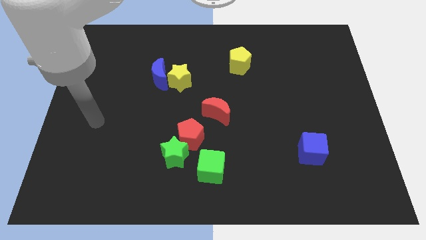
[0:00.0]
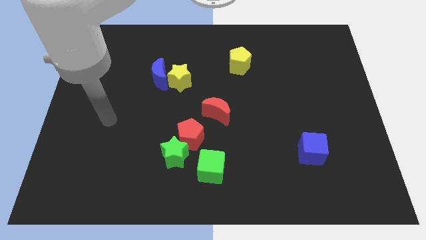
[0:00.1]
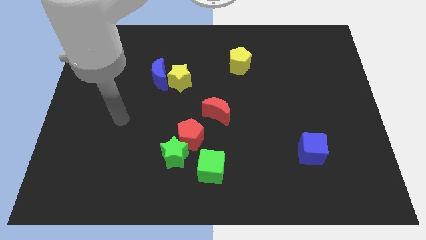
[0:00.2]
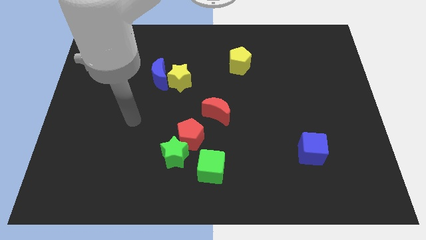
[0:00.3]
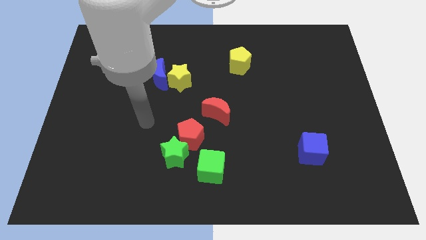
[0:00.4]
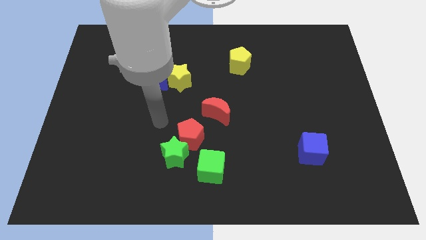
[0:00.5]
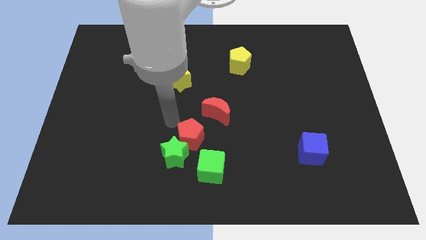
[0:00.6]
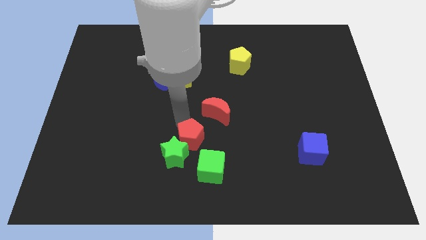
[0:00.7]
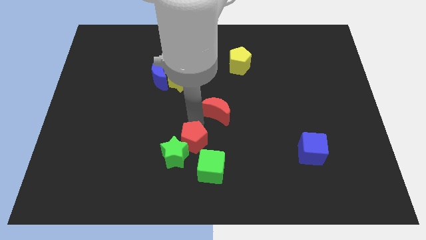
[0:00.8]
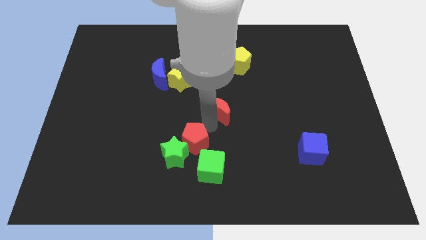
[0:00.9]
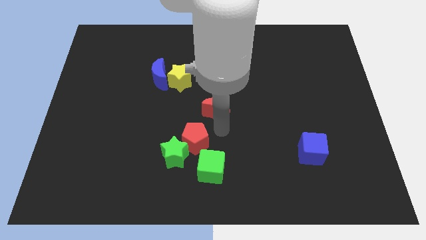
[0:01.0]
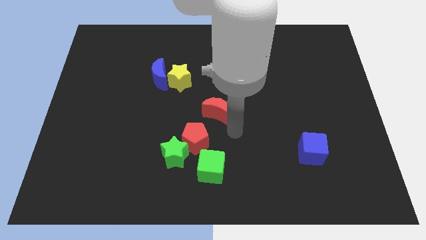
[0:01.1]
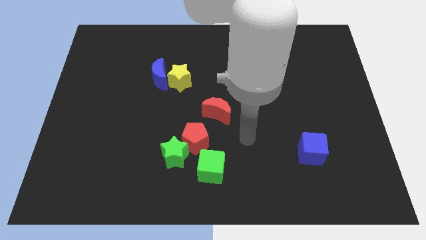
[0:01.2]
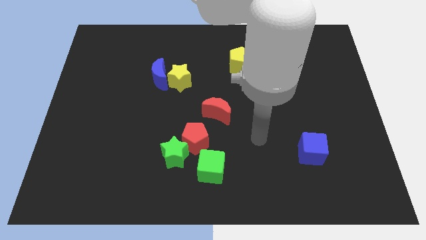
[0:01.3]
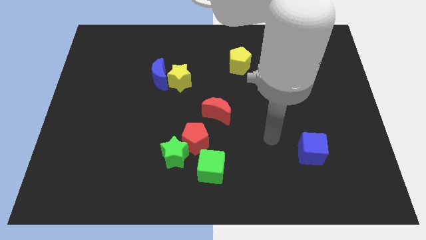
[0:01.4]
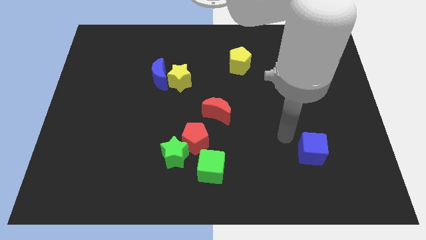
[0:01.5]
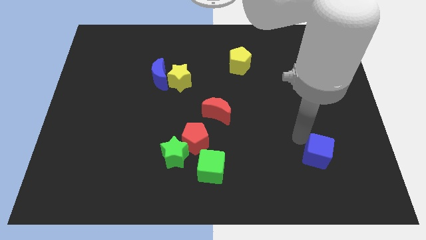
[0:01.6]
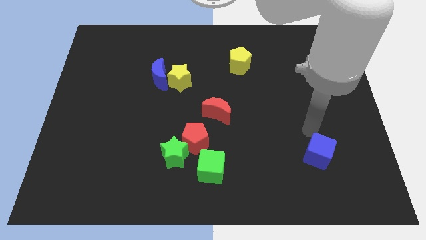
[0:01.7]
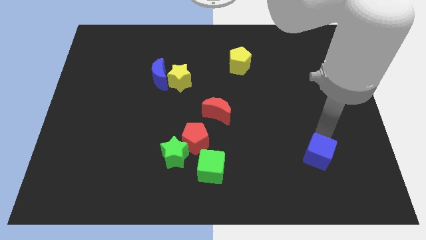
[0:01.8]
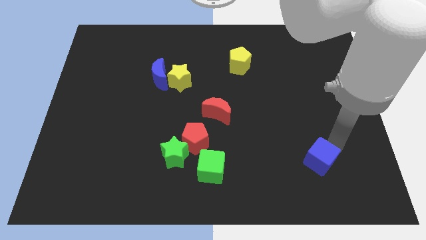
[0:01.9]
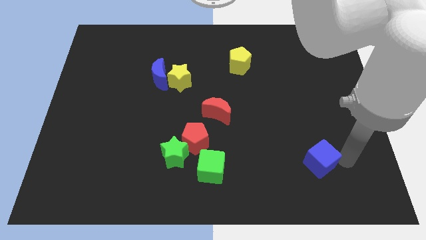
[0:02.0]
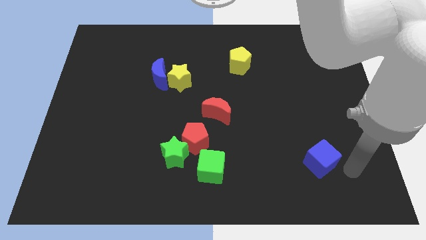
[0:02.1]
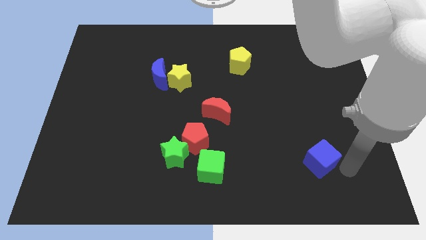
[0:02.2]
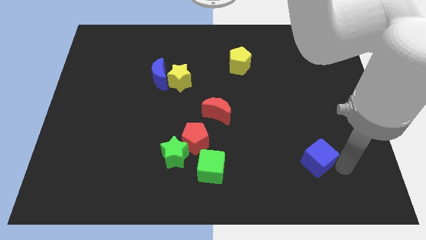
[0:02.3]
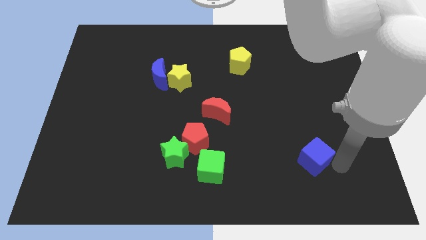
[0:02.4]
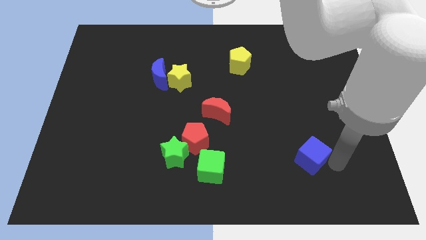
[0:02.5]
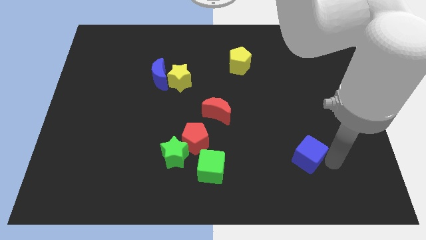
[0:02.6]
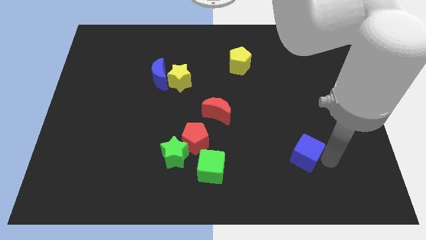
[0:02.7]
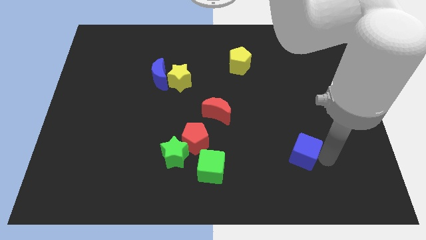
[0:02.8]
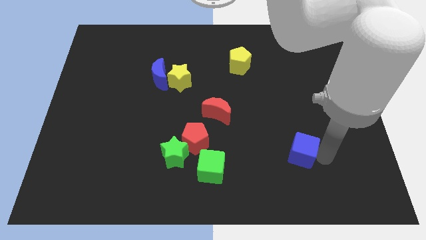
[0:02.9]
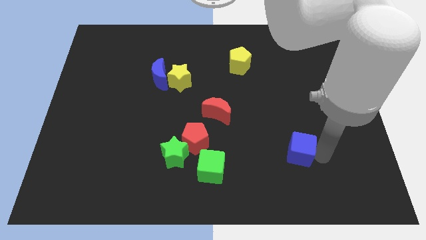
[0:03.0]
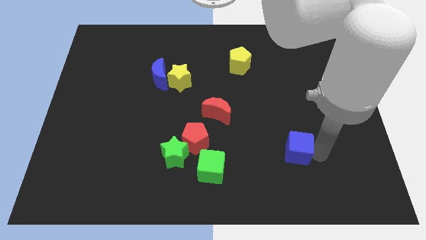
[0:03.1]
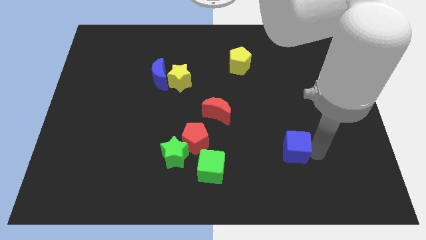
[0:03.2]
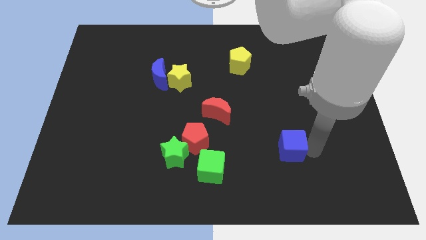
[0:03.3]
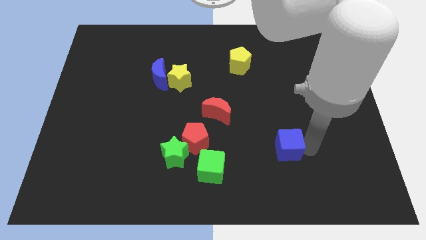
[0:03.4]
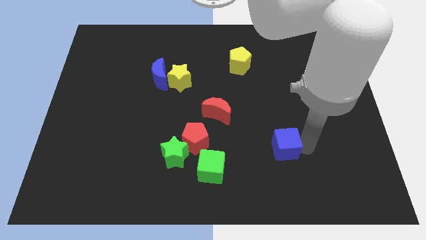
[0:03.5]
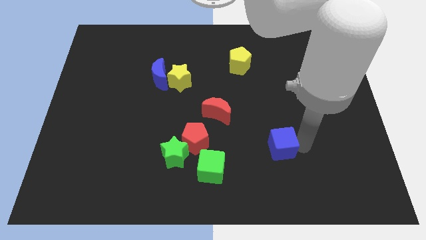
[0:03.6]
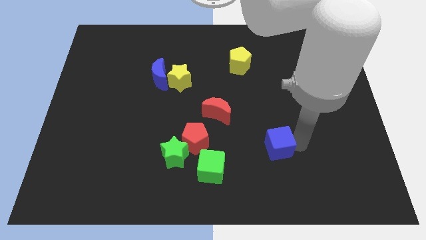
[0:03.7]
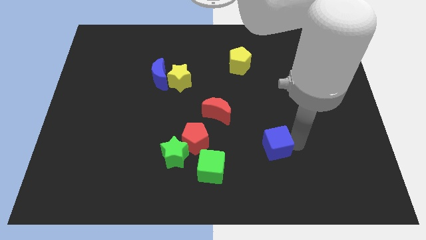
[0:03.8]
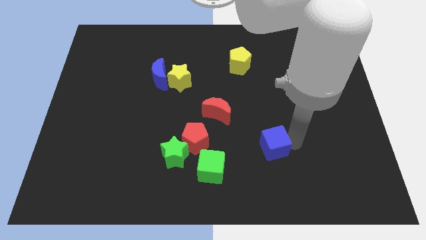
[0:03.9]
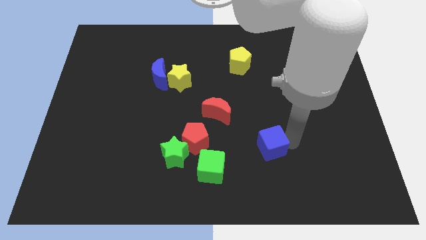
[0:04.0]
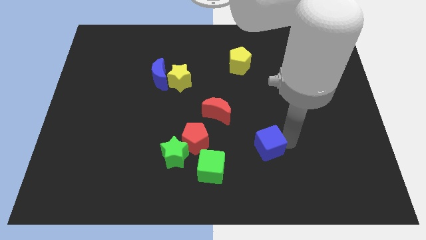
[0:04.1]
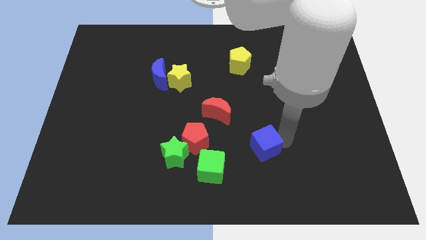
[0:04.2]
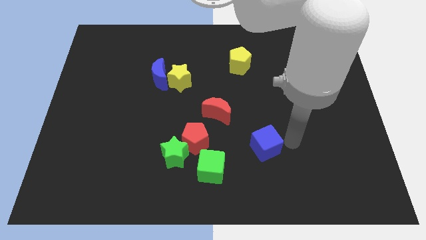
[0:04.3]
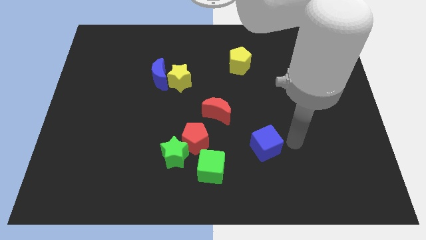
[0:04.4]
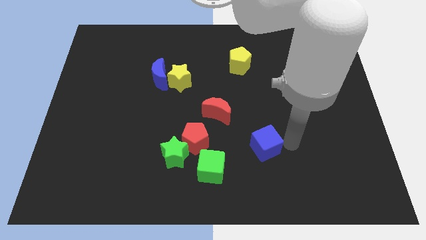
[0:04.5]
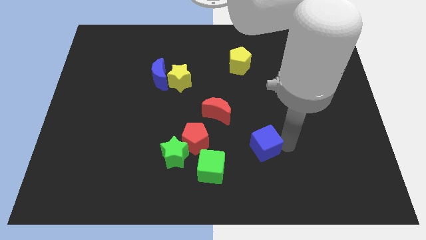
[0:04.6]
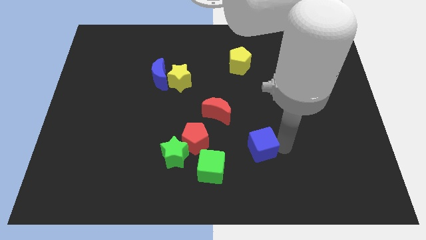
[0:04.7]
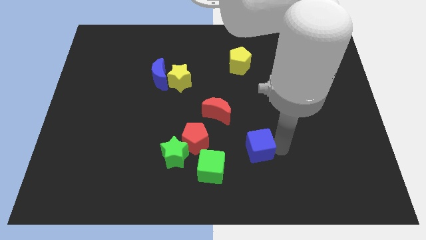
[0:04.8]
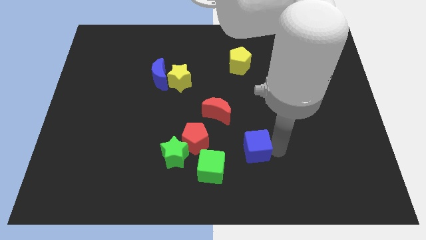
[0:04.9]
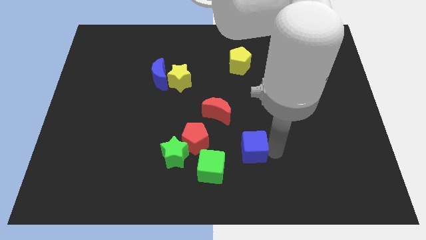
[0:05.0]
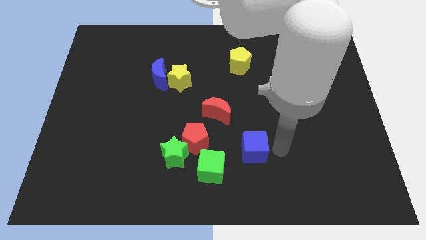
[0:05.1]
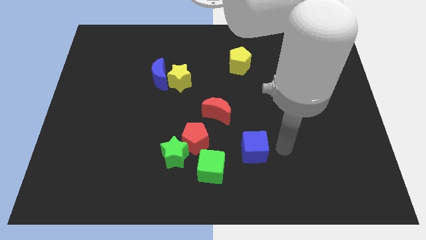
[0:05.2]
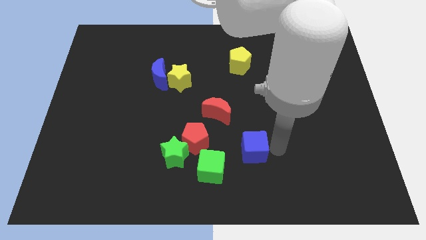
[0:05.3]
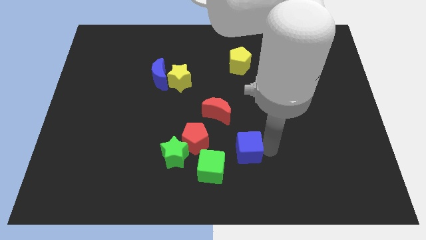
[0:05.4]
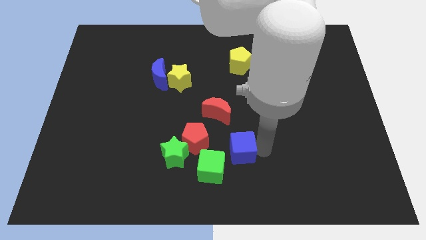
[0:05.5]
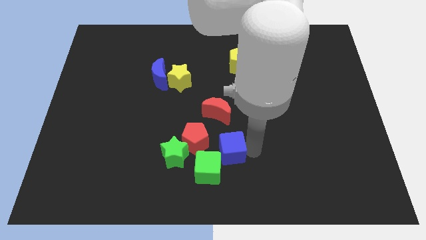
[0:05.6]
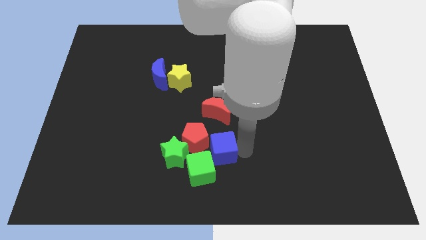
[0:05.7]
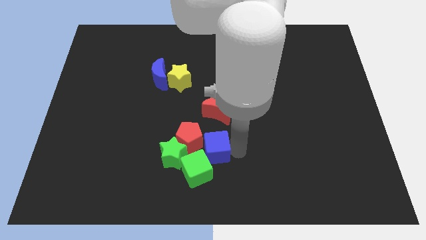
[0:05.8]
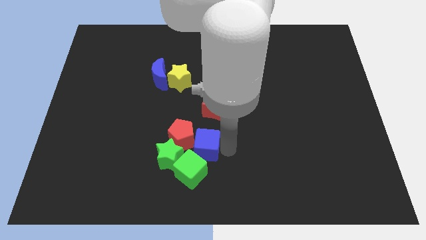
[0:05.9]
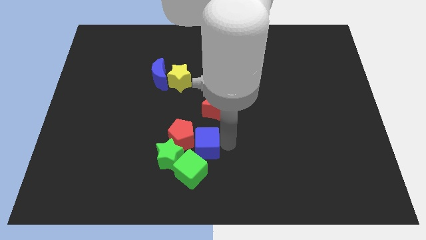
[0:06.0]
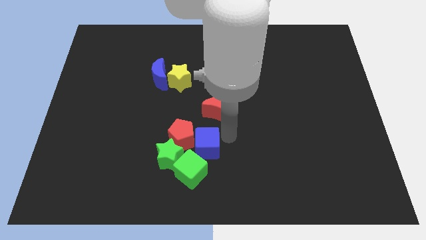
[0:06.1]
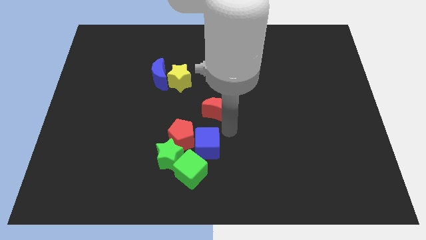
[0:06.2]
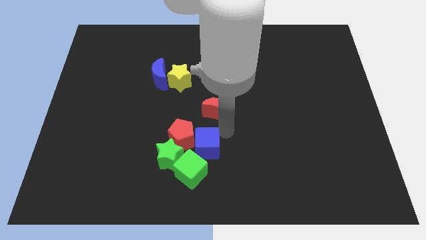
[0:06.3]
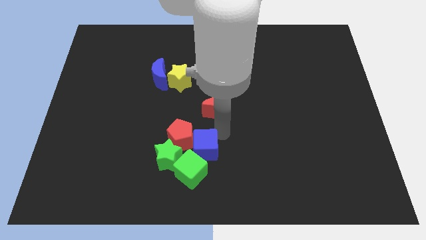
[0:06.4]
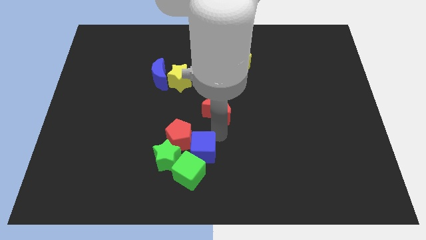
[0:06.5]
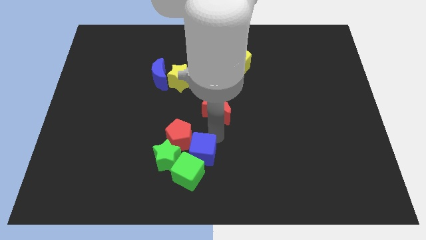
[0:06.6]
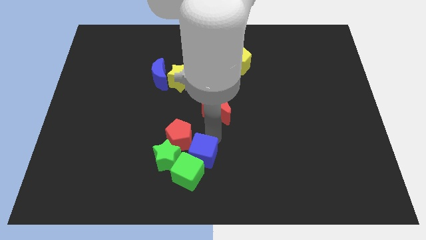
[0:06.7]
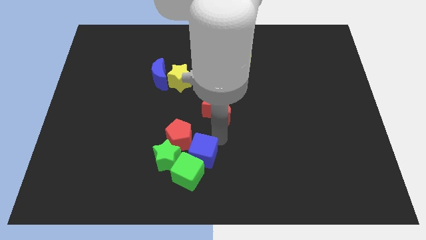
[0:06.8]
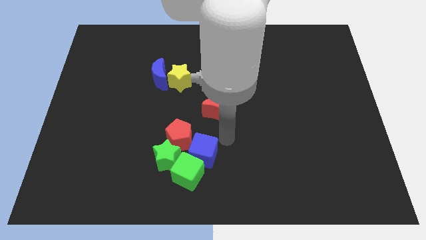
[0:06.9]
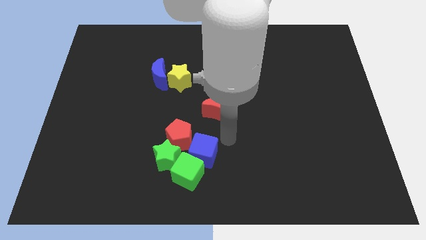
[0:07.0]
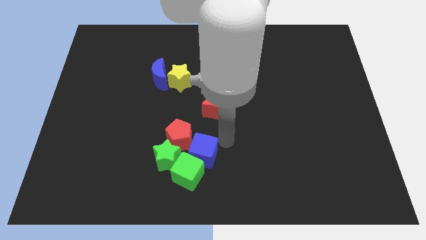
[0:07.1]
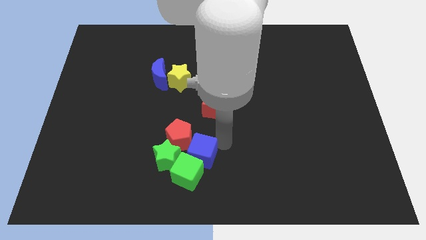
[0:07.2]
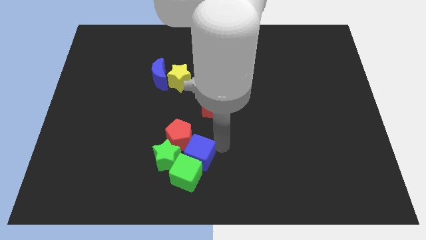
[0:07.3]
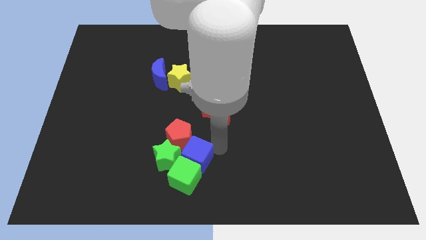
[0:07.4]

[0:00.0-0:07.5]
put the blue cube close to the green star

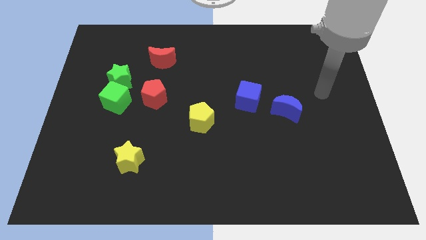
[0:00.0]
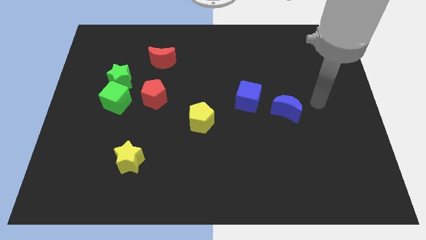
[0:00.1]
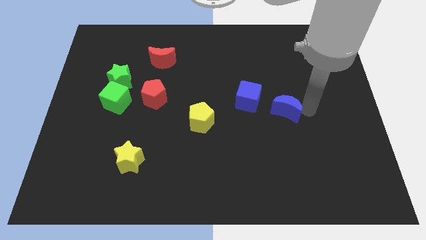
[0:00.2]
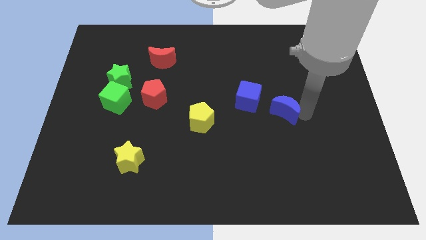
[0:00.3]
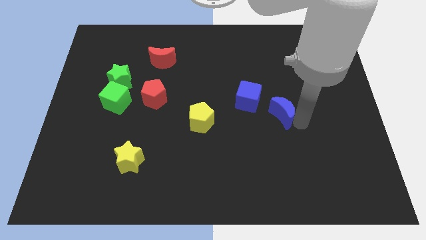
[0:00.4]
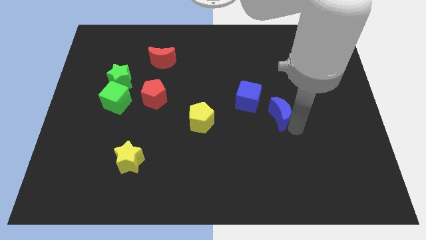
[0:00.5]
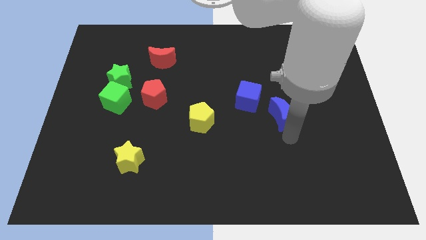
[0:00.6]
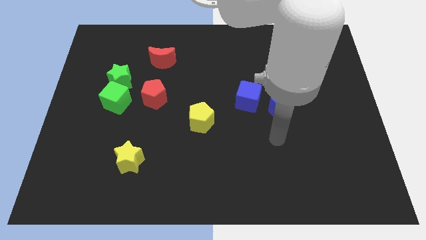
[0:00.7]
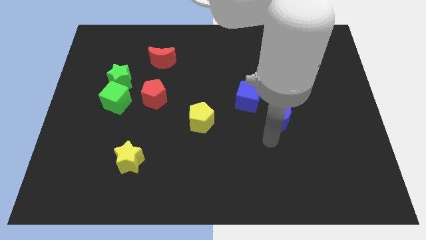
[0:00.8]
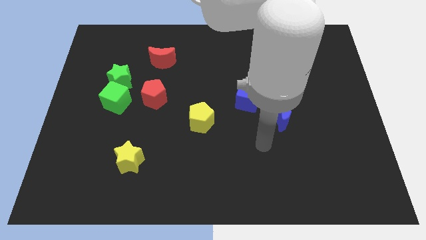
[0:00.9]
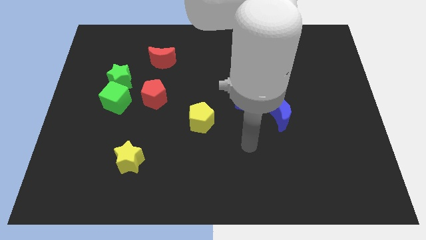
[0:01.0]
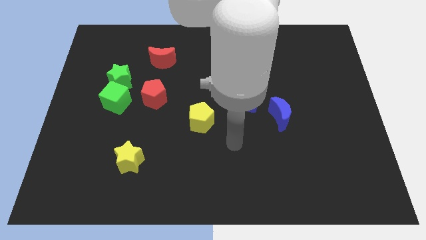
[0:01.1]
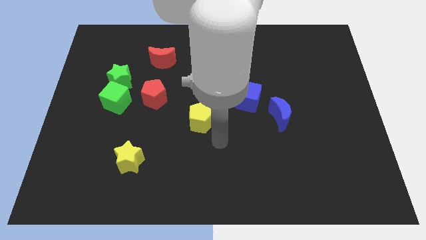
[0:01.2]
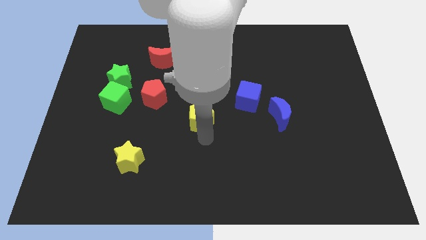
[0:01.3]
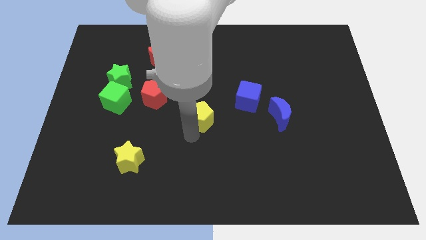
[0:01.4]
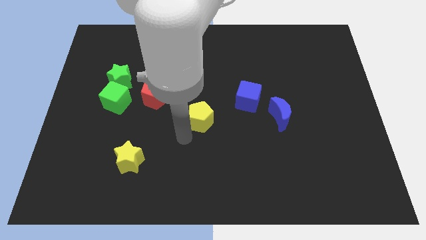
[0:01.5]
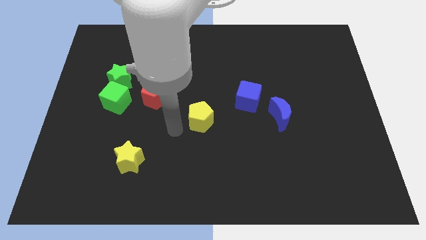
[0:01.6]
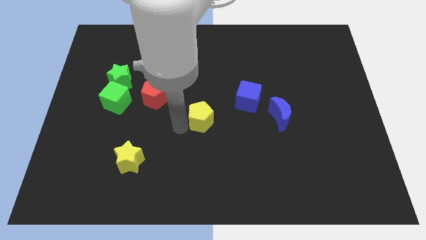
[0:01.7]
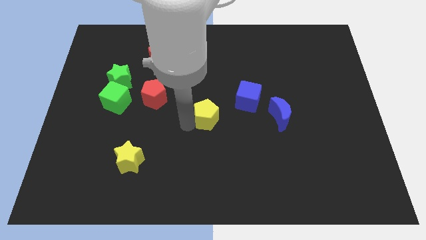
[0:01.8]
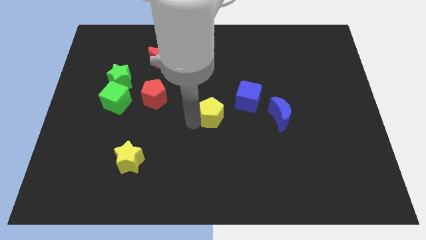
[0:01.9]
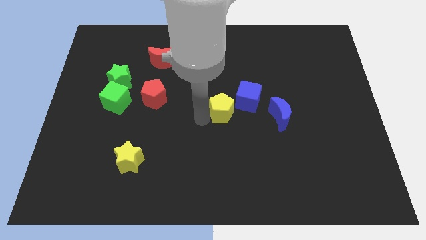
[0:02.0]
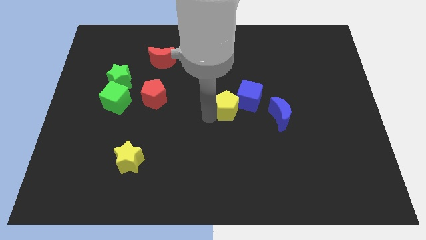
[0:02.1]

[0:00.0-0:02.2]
put the yellow pentagon towards the blue cube
